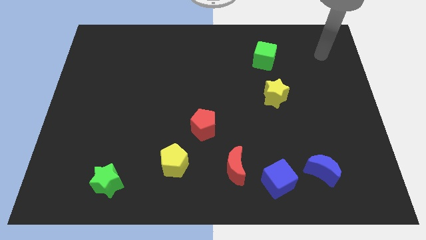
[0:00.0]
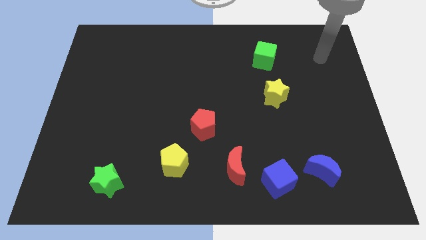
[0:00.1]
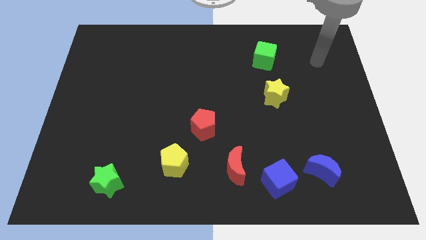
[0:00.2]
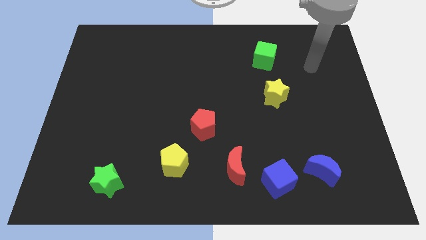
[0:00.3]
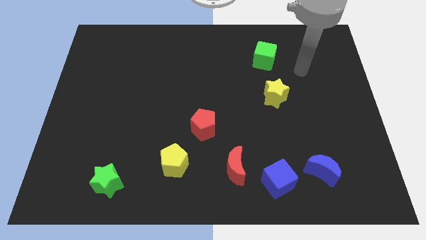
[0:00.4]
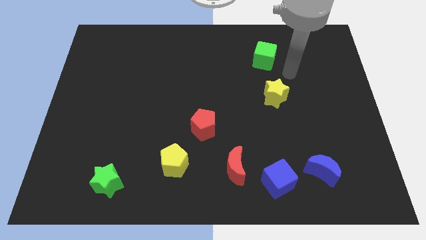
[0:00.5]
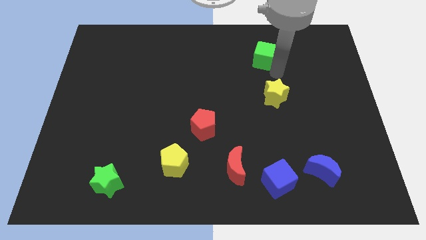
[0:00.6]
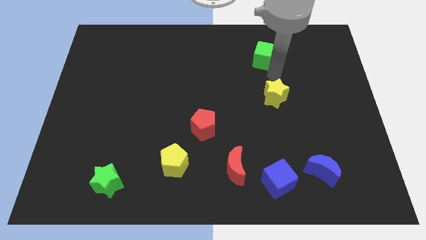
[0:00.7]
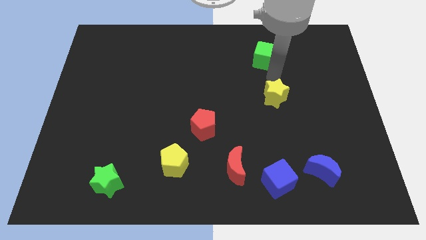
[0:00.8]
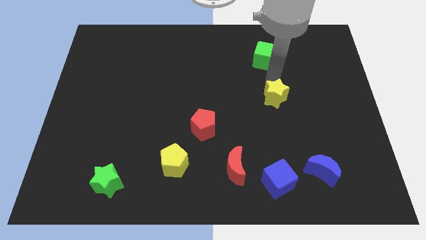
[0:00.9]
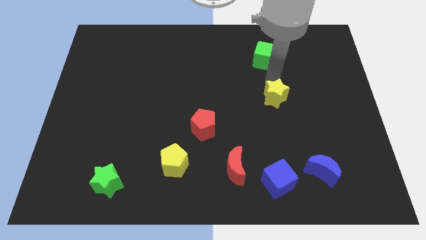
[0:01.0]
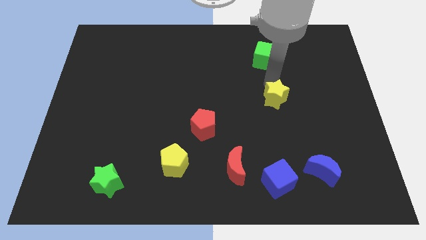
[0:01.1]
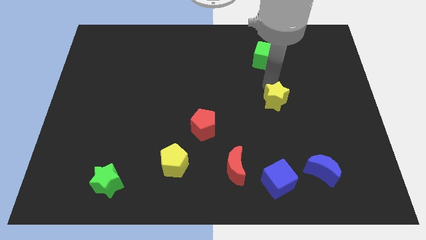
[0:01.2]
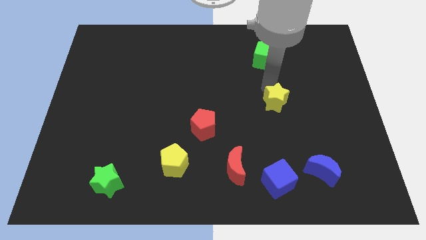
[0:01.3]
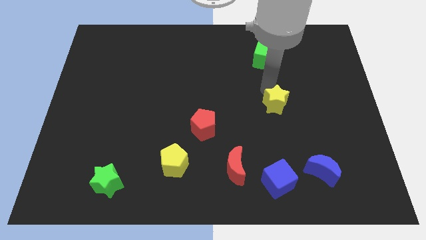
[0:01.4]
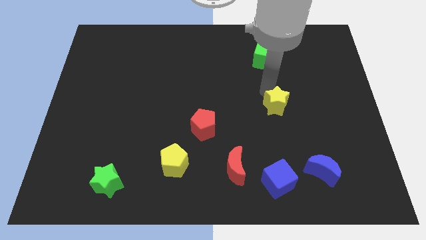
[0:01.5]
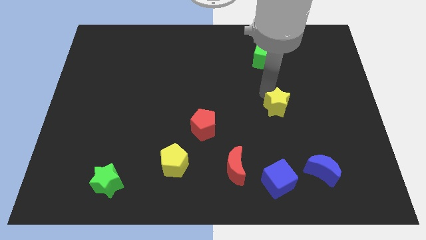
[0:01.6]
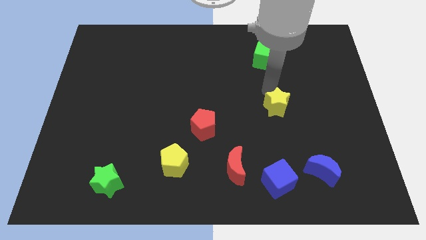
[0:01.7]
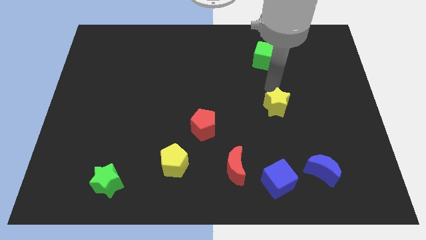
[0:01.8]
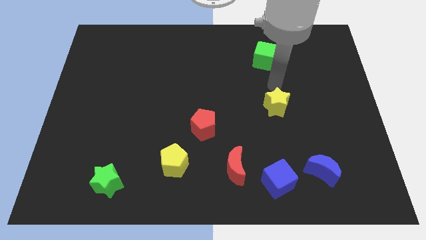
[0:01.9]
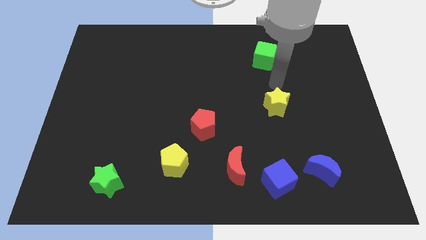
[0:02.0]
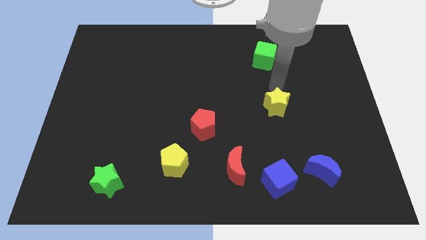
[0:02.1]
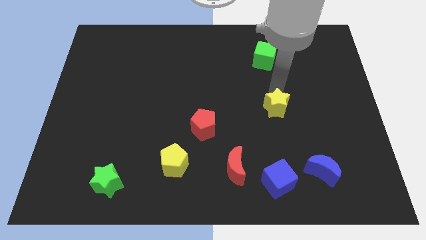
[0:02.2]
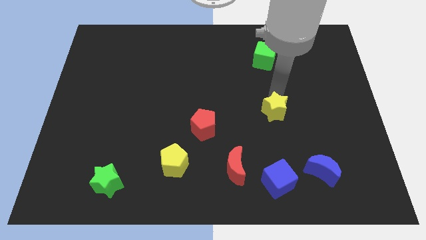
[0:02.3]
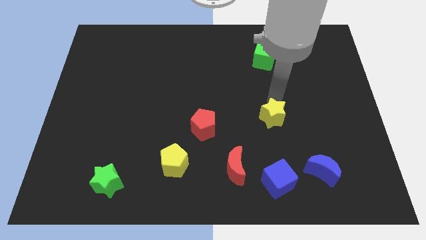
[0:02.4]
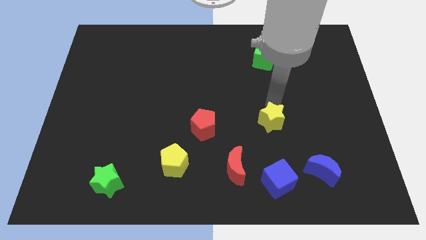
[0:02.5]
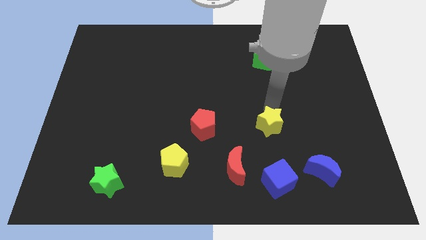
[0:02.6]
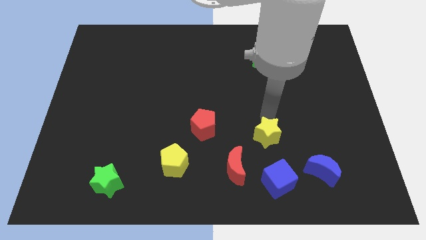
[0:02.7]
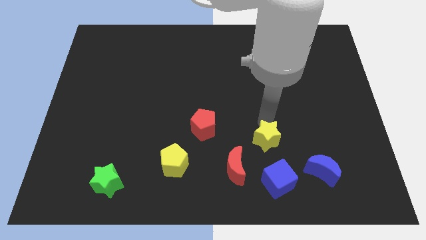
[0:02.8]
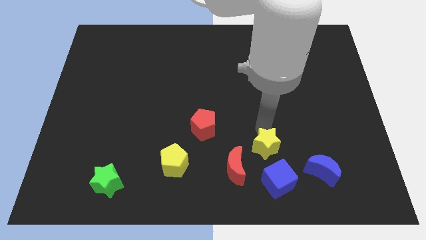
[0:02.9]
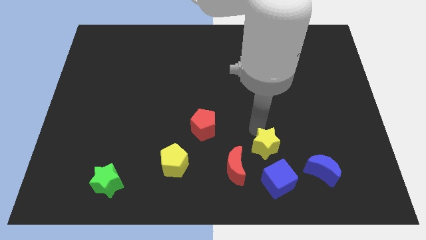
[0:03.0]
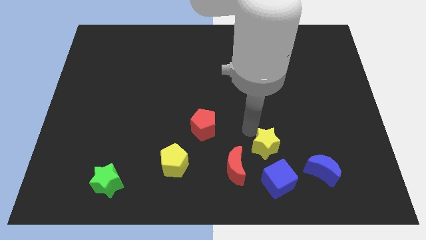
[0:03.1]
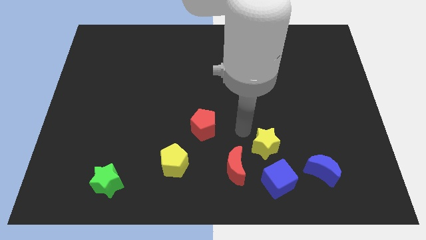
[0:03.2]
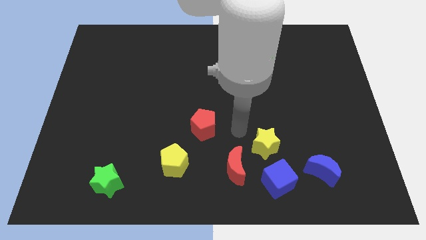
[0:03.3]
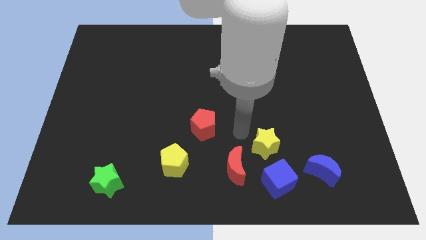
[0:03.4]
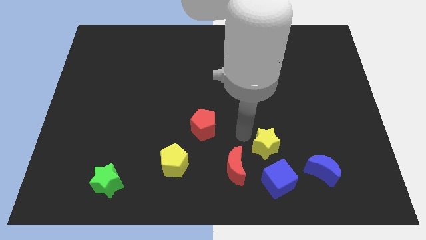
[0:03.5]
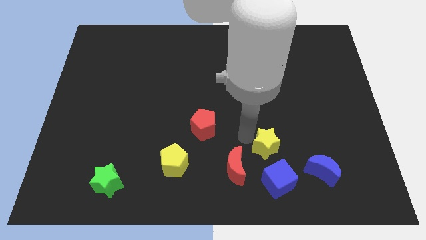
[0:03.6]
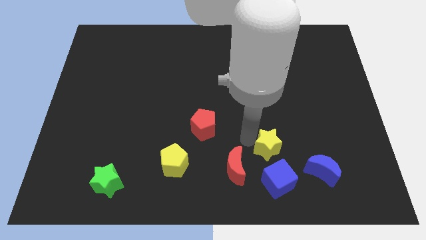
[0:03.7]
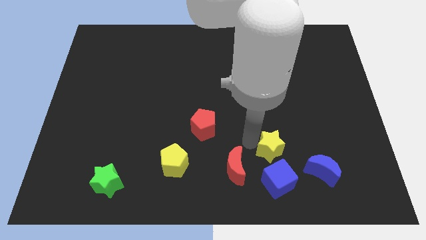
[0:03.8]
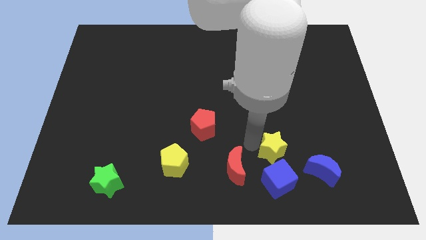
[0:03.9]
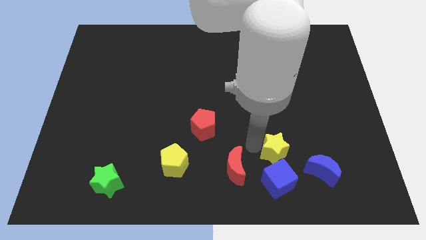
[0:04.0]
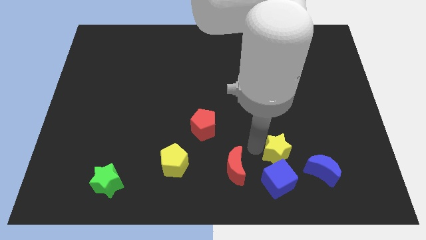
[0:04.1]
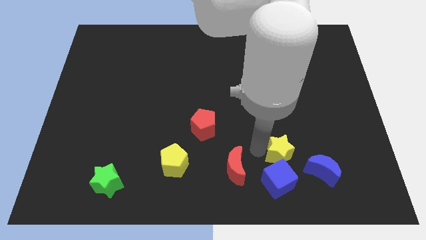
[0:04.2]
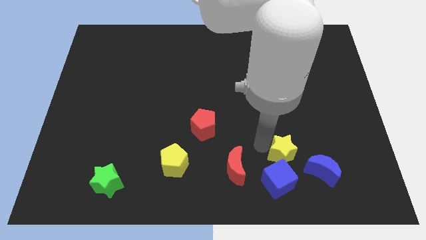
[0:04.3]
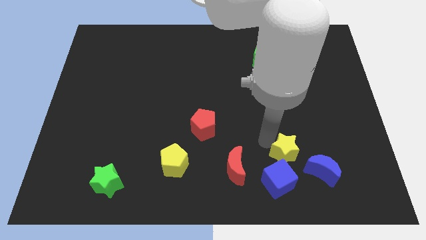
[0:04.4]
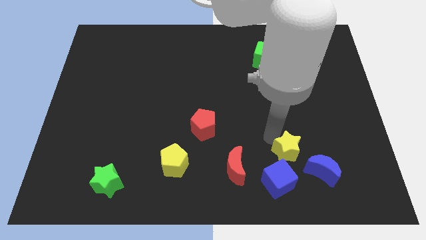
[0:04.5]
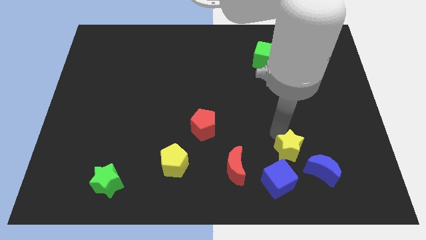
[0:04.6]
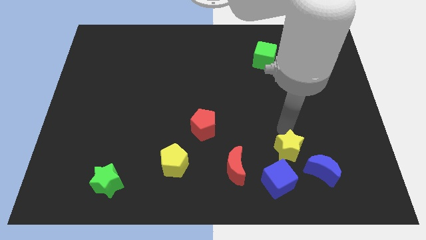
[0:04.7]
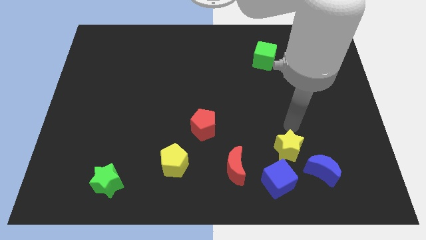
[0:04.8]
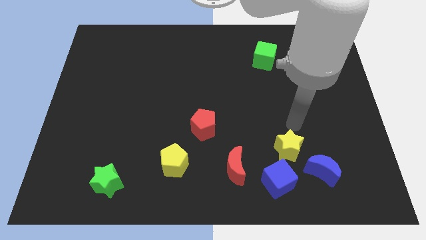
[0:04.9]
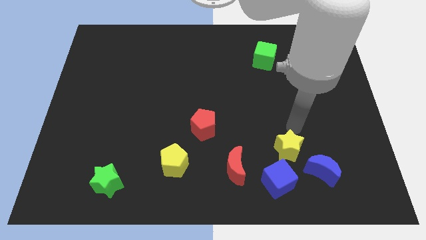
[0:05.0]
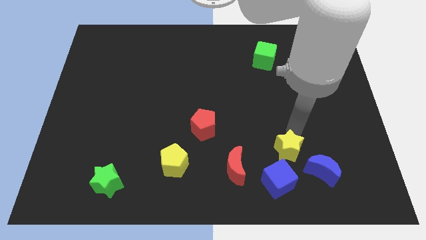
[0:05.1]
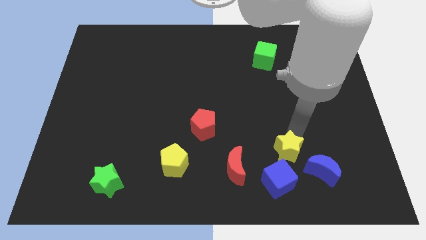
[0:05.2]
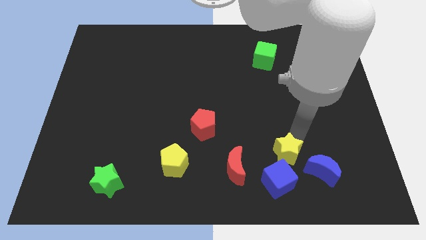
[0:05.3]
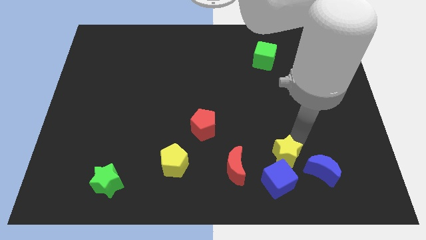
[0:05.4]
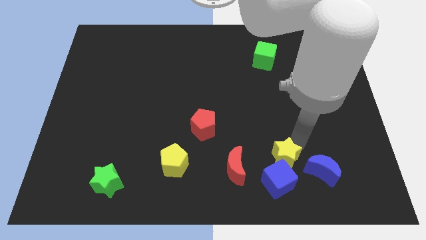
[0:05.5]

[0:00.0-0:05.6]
slide the yellow star next to the blue cube

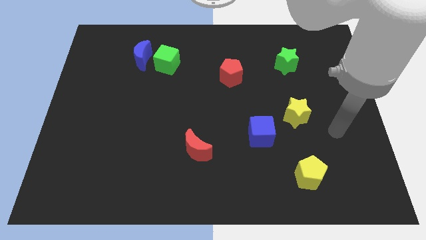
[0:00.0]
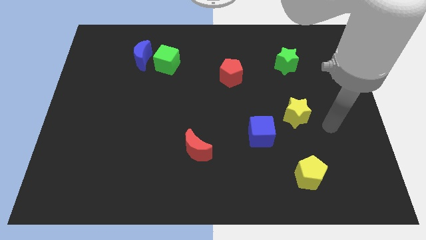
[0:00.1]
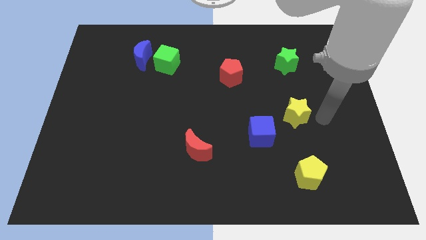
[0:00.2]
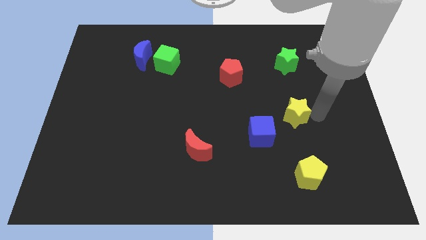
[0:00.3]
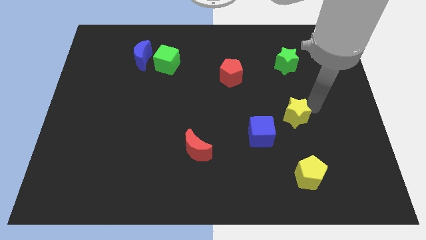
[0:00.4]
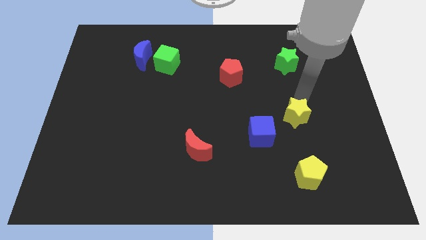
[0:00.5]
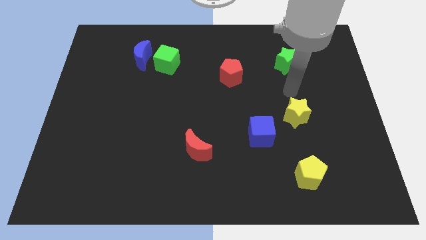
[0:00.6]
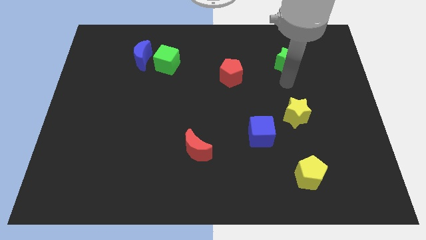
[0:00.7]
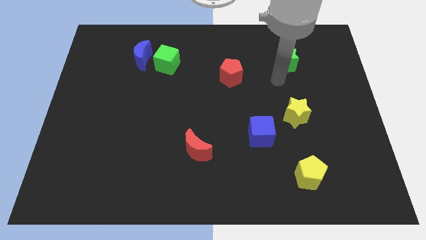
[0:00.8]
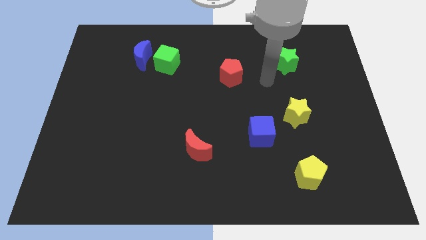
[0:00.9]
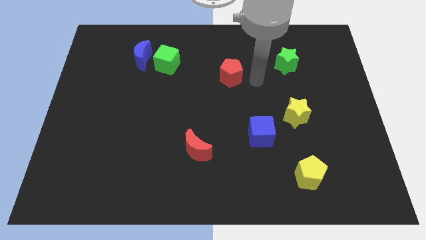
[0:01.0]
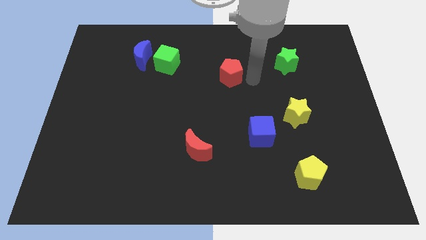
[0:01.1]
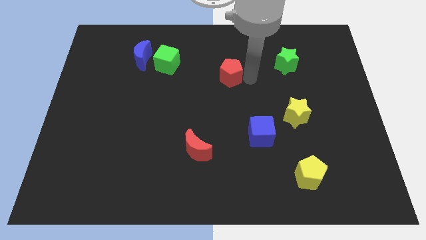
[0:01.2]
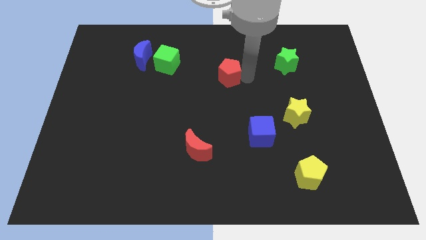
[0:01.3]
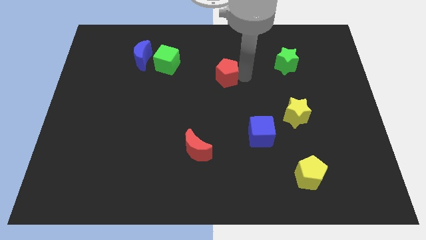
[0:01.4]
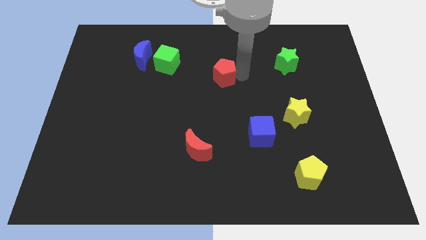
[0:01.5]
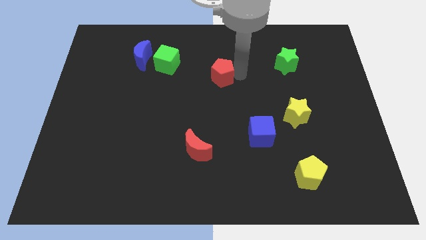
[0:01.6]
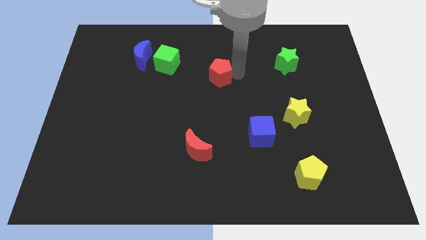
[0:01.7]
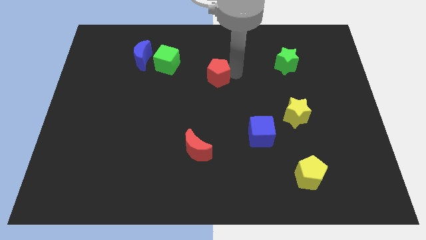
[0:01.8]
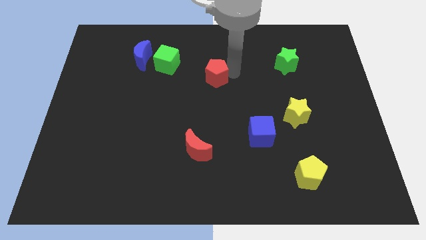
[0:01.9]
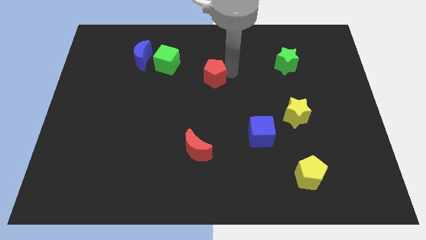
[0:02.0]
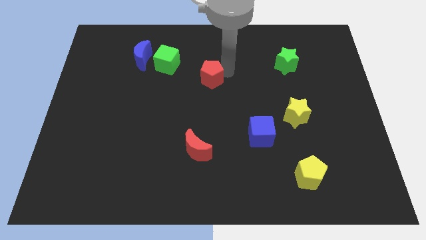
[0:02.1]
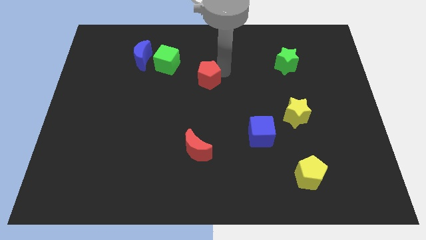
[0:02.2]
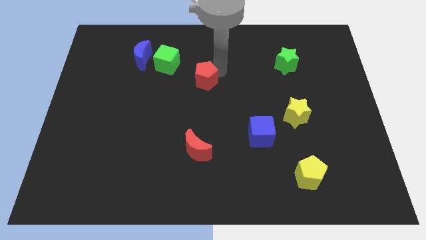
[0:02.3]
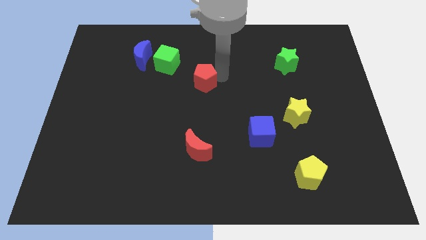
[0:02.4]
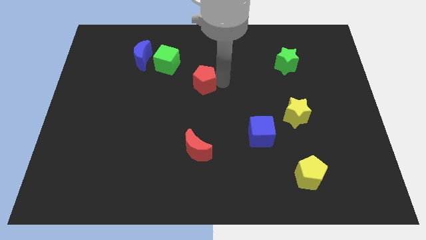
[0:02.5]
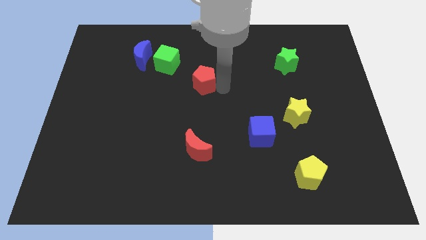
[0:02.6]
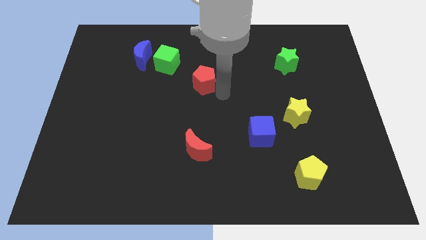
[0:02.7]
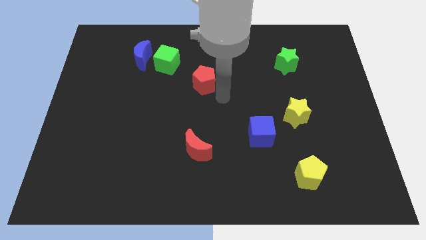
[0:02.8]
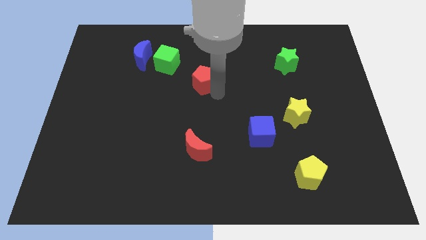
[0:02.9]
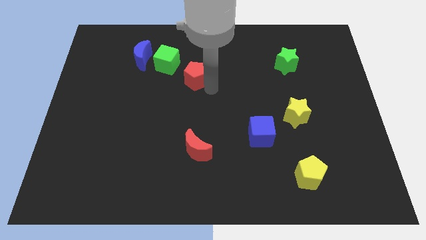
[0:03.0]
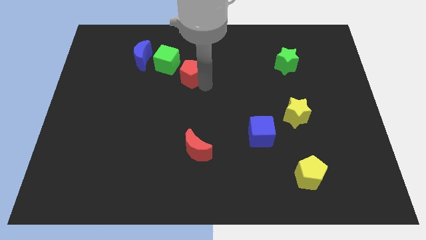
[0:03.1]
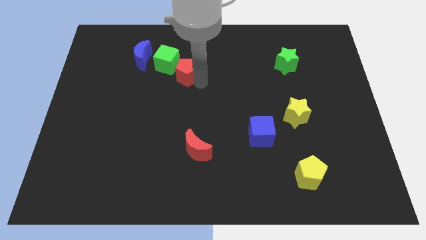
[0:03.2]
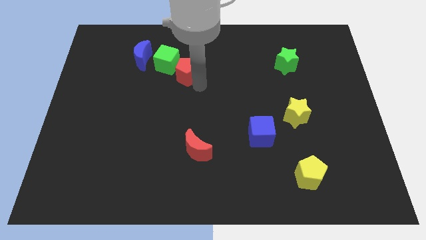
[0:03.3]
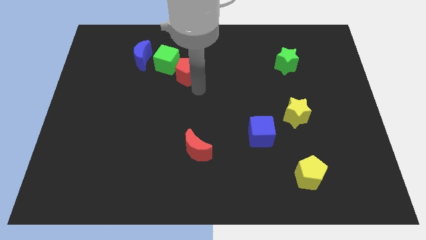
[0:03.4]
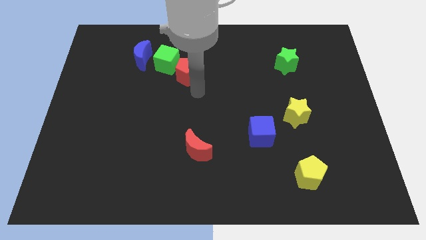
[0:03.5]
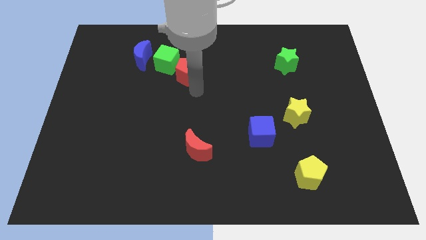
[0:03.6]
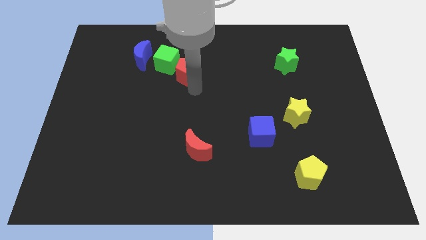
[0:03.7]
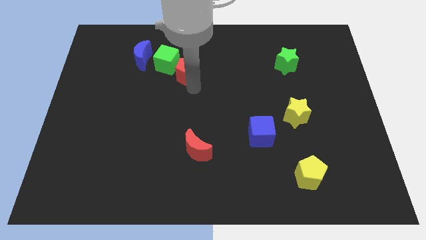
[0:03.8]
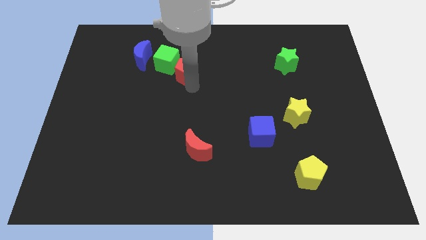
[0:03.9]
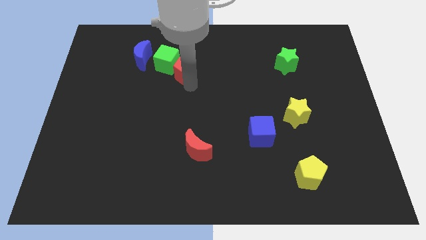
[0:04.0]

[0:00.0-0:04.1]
slide the red pentagon towards the green cube
